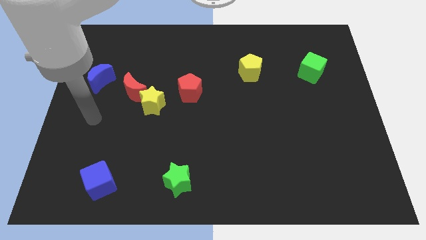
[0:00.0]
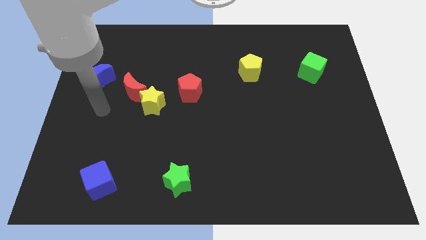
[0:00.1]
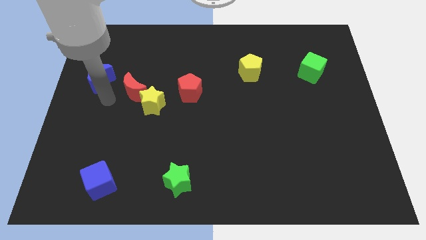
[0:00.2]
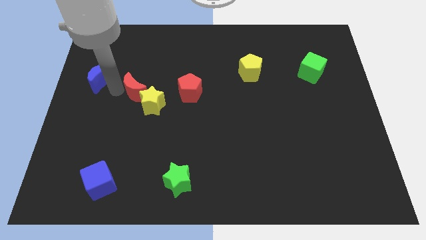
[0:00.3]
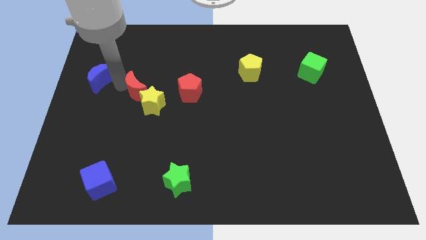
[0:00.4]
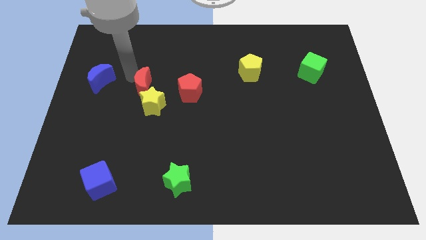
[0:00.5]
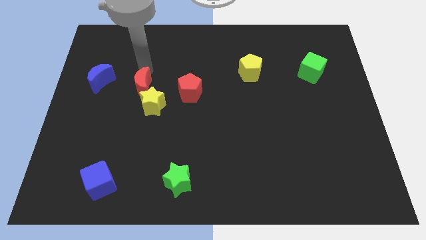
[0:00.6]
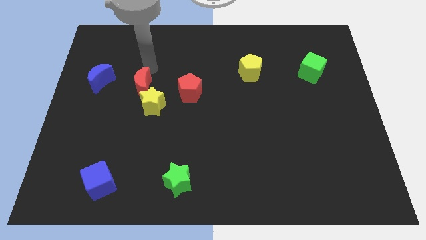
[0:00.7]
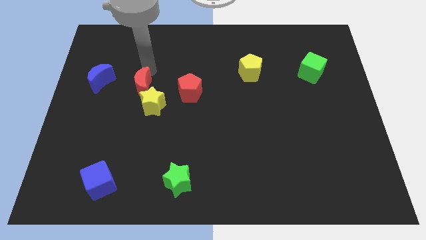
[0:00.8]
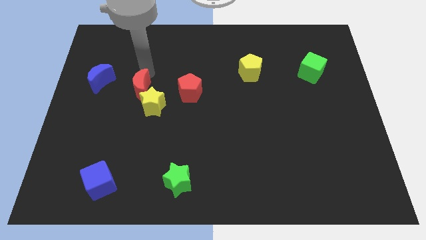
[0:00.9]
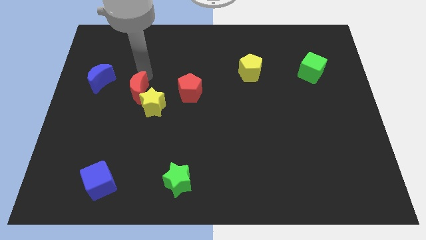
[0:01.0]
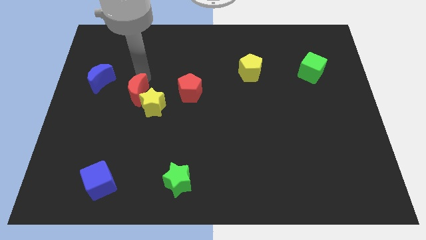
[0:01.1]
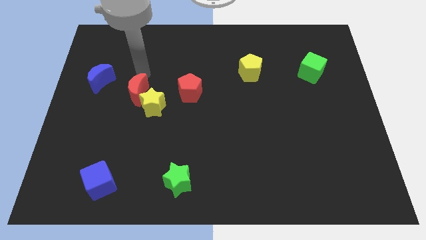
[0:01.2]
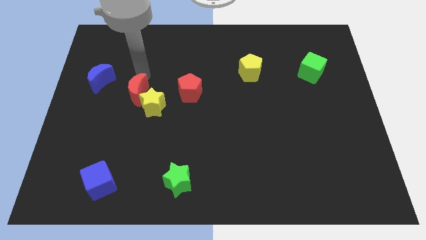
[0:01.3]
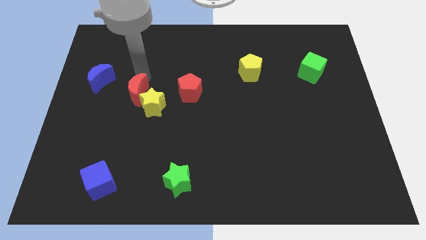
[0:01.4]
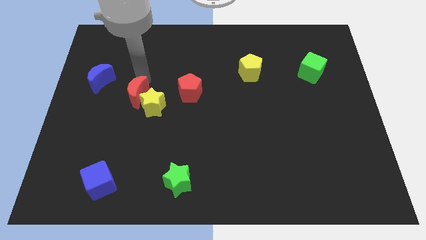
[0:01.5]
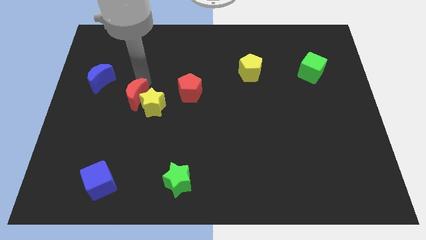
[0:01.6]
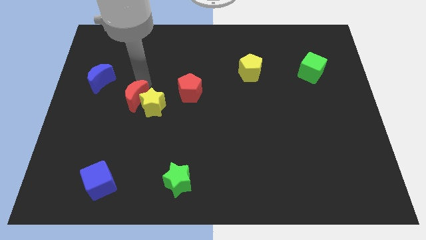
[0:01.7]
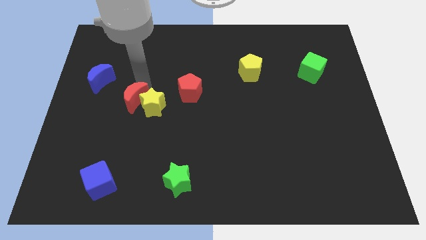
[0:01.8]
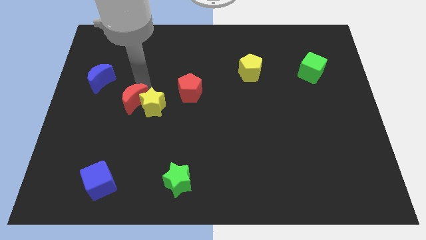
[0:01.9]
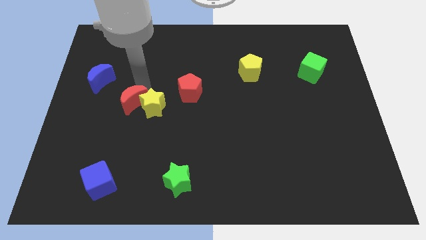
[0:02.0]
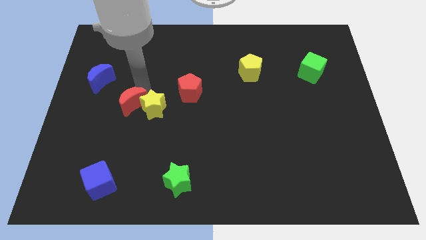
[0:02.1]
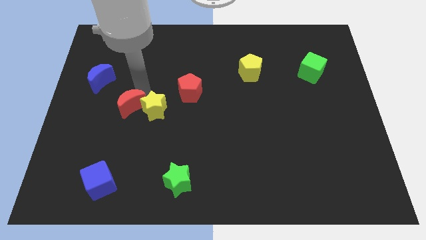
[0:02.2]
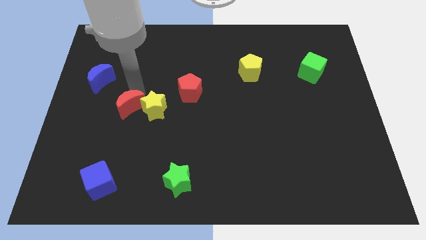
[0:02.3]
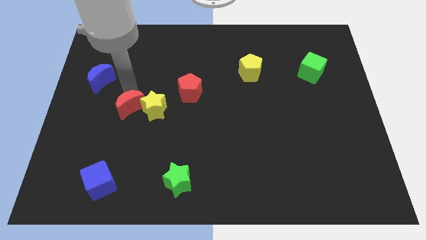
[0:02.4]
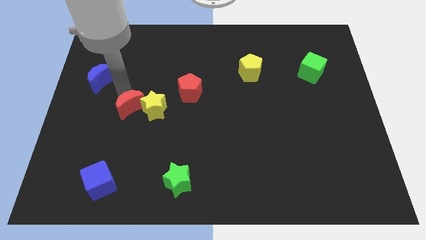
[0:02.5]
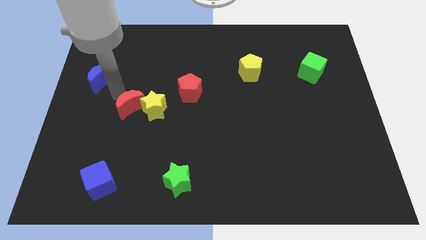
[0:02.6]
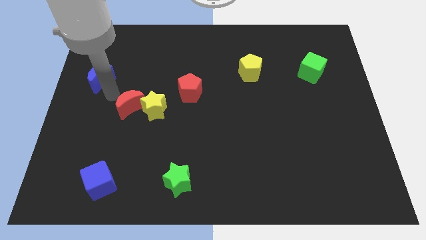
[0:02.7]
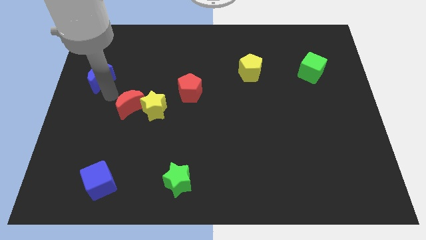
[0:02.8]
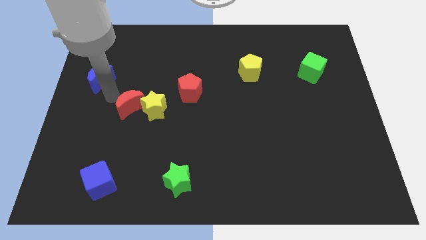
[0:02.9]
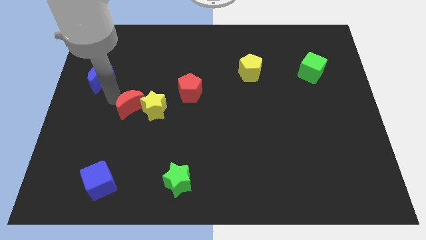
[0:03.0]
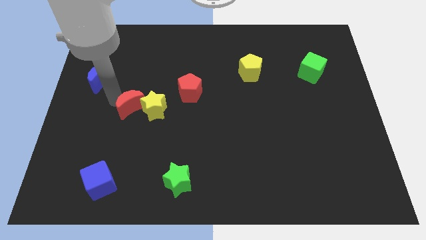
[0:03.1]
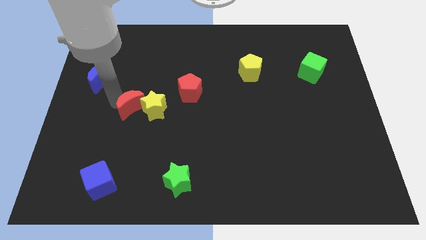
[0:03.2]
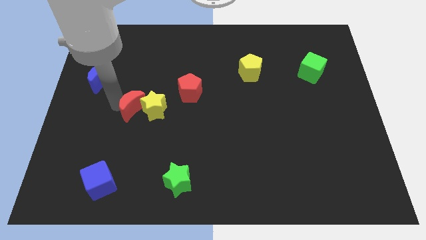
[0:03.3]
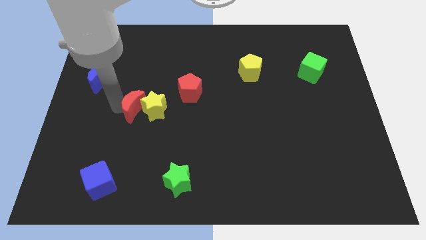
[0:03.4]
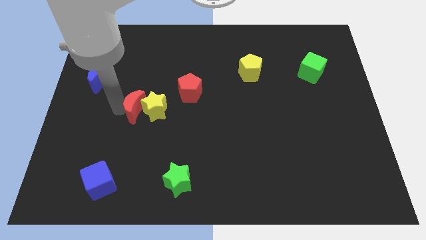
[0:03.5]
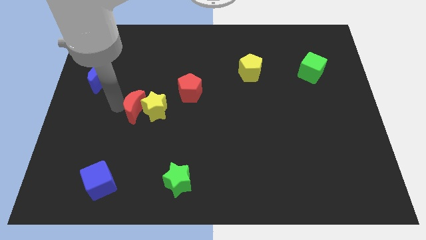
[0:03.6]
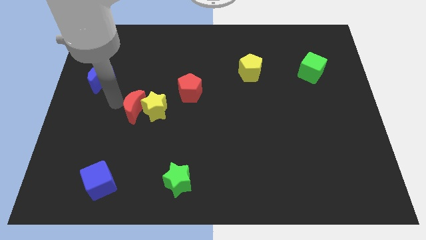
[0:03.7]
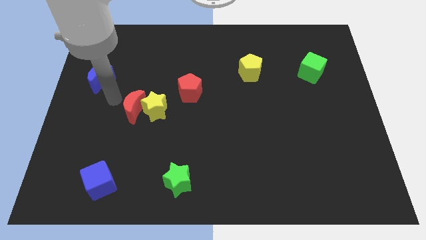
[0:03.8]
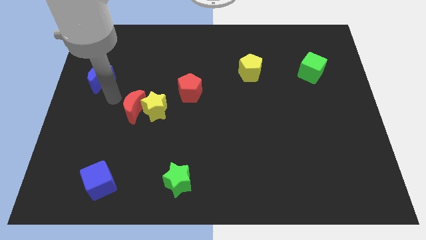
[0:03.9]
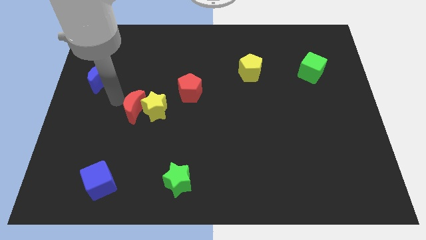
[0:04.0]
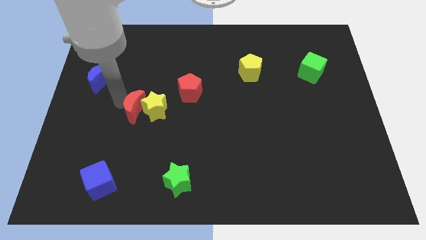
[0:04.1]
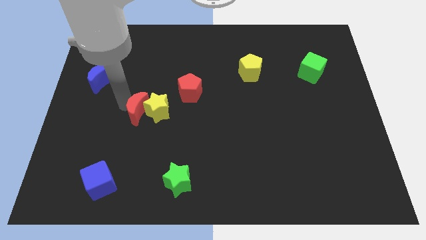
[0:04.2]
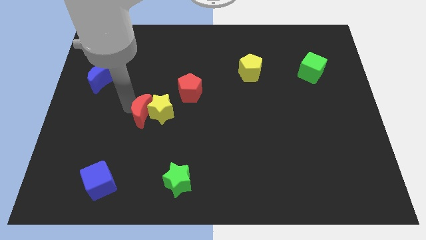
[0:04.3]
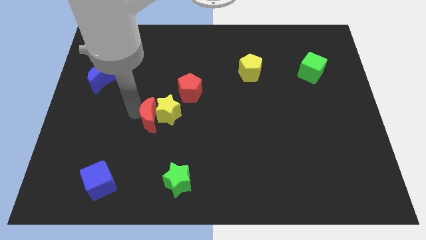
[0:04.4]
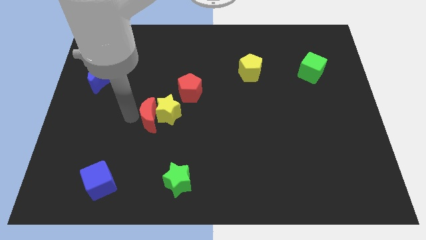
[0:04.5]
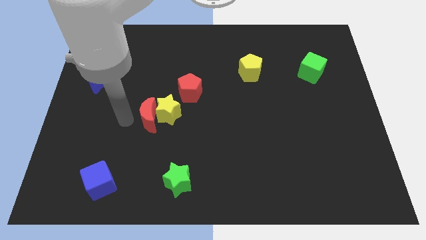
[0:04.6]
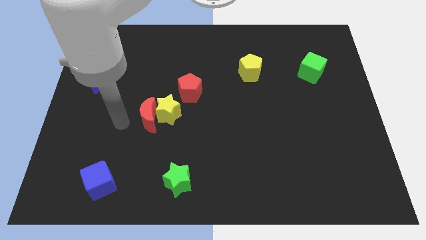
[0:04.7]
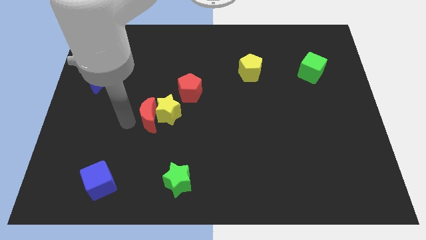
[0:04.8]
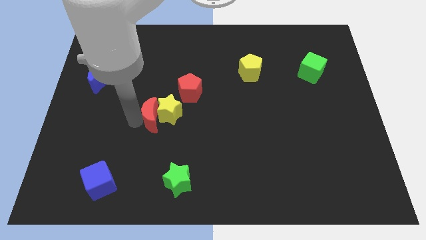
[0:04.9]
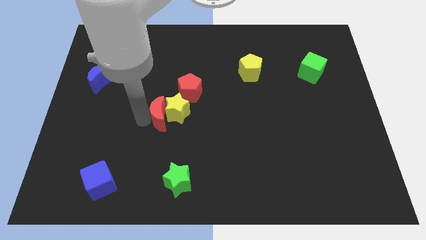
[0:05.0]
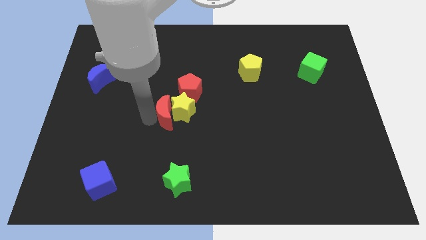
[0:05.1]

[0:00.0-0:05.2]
move the red moon to the middle of the board
